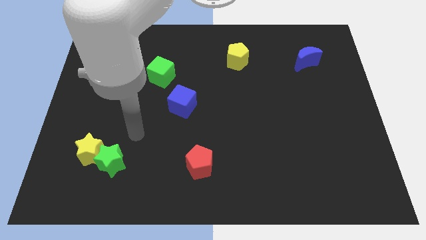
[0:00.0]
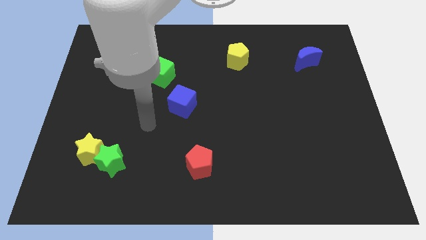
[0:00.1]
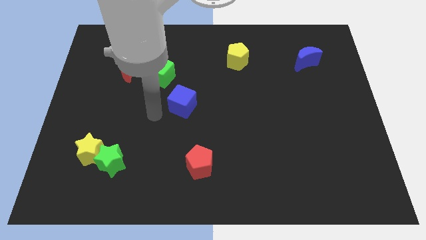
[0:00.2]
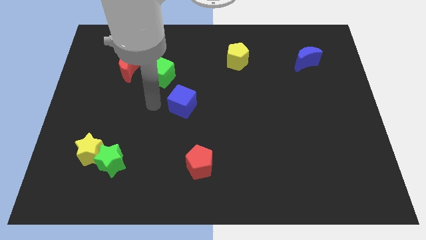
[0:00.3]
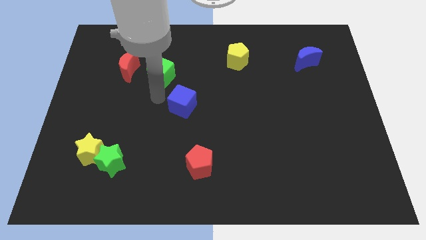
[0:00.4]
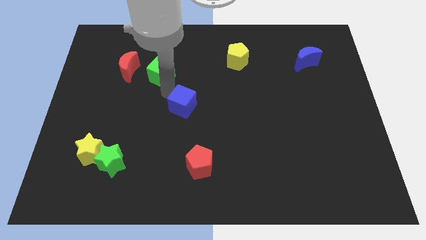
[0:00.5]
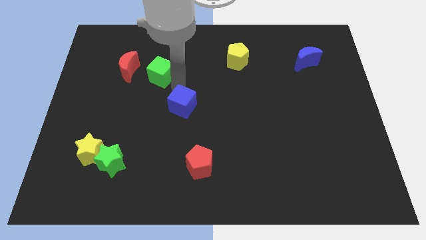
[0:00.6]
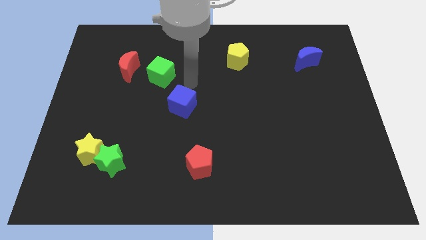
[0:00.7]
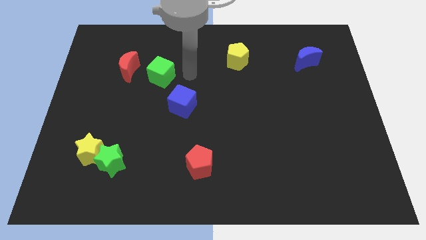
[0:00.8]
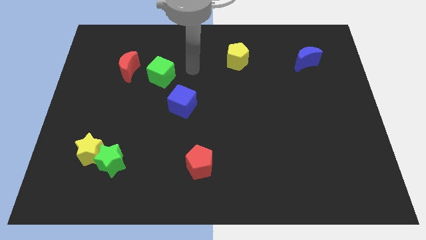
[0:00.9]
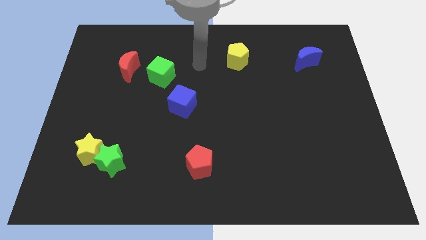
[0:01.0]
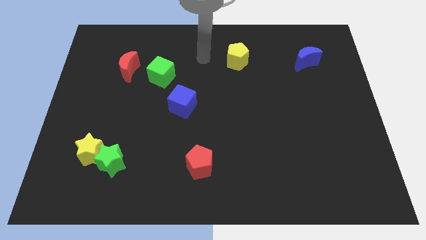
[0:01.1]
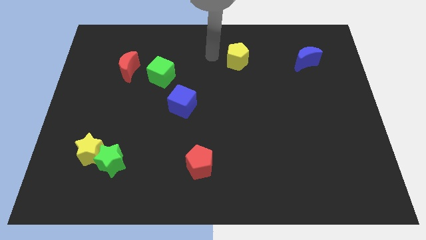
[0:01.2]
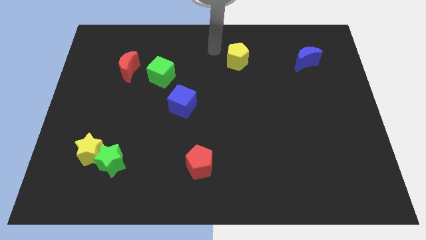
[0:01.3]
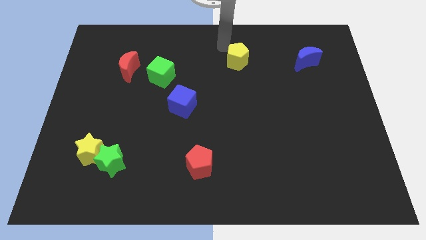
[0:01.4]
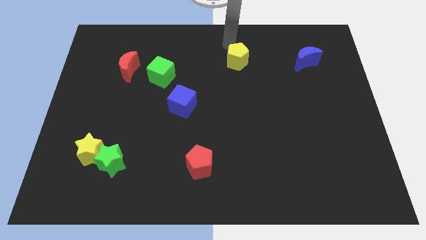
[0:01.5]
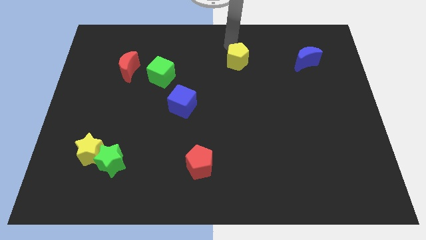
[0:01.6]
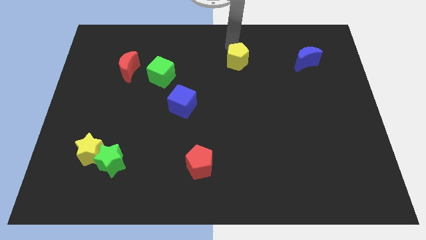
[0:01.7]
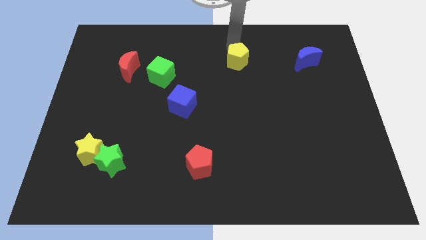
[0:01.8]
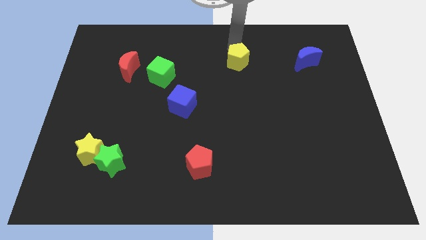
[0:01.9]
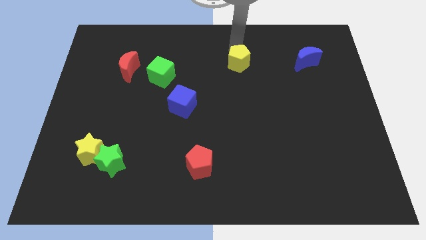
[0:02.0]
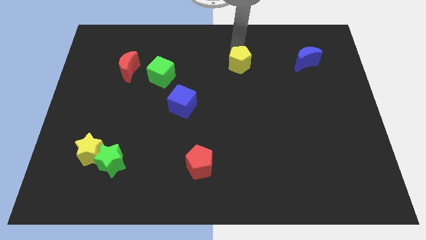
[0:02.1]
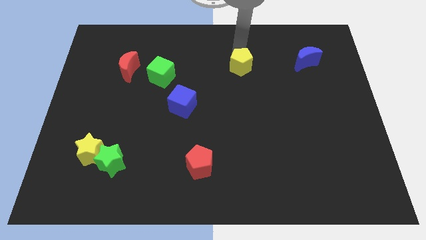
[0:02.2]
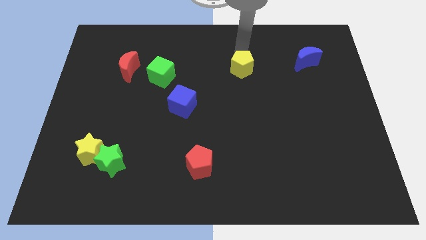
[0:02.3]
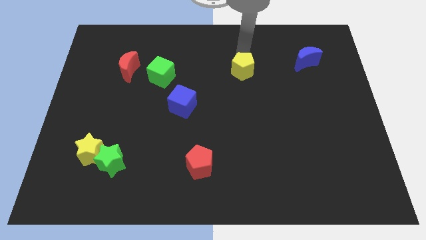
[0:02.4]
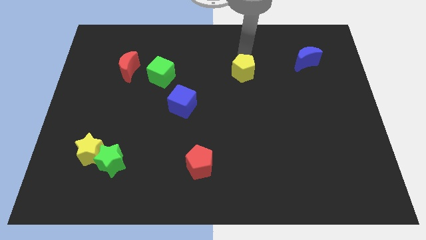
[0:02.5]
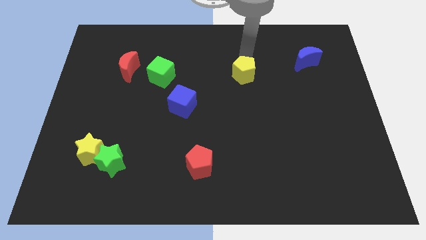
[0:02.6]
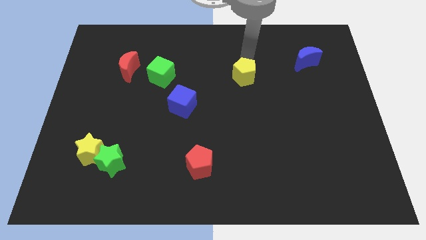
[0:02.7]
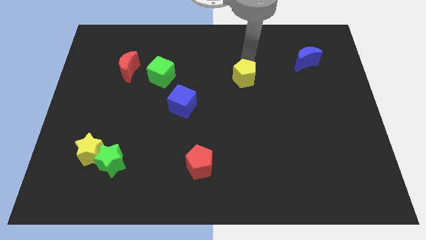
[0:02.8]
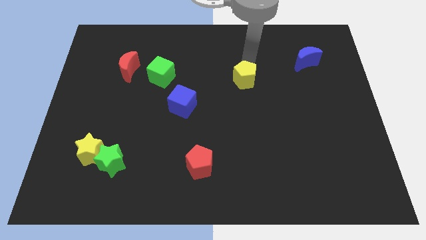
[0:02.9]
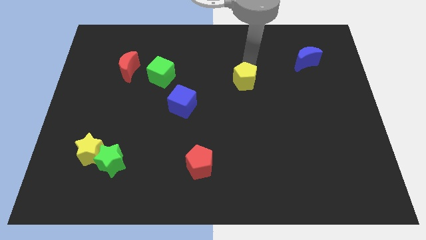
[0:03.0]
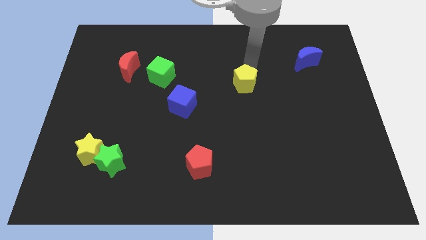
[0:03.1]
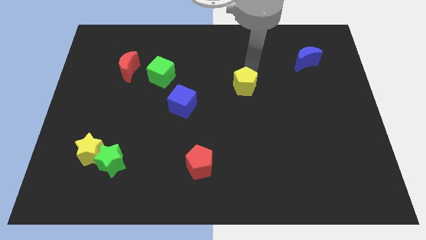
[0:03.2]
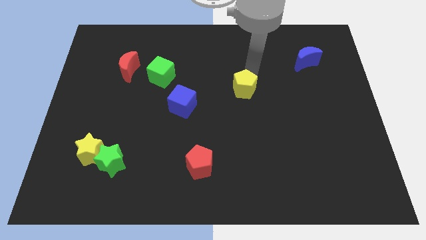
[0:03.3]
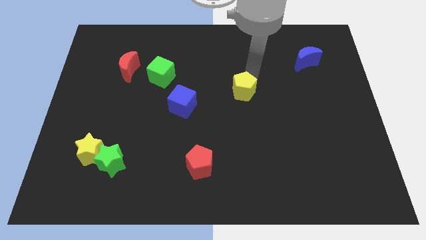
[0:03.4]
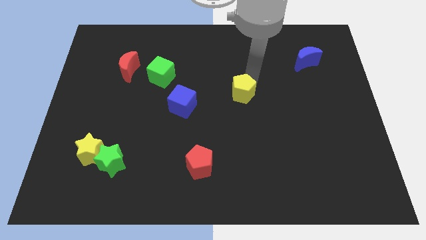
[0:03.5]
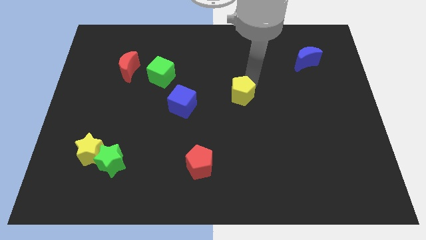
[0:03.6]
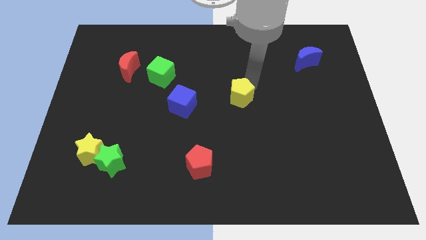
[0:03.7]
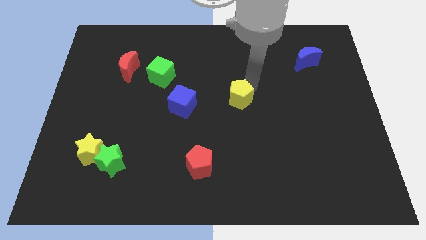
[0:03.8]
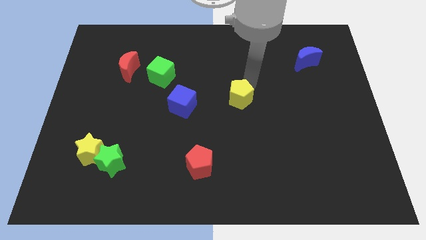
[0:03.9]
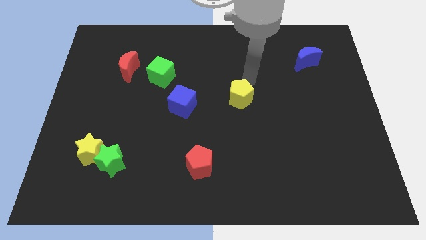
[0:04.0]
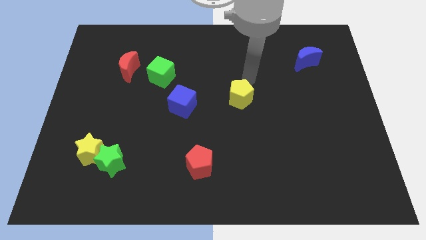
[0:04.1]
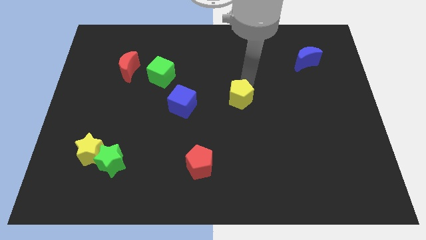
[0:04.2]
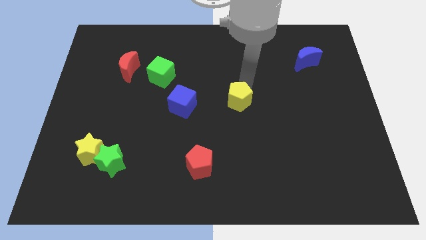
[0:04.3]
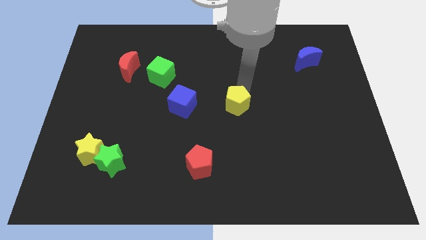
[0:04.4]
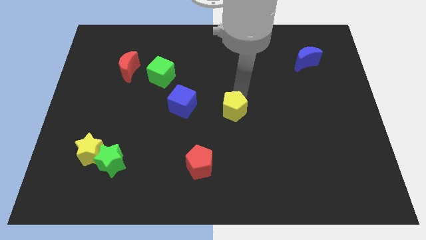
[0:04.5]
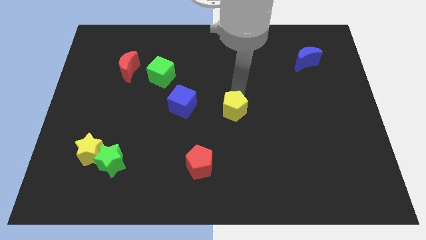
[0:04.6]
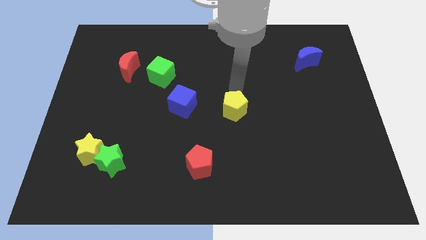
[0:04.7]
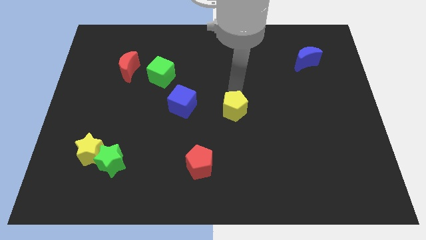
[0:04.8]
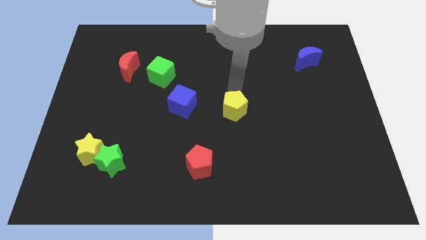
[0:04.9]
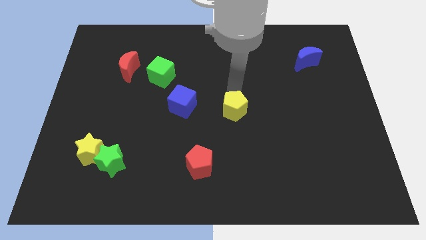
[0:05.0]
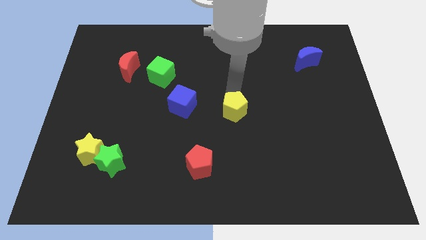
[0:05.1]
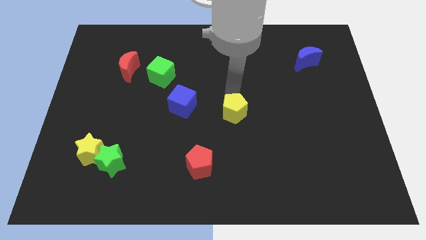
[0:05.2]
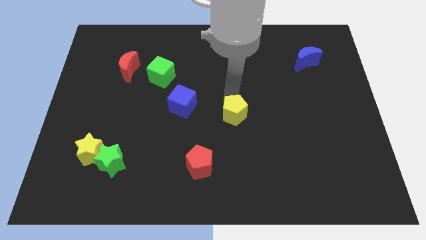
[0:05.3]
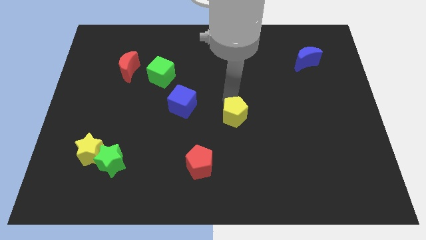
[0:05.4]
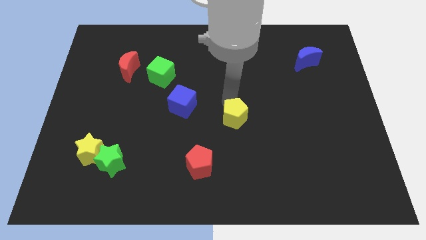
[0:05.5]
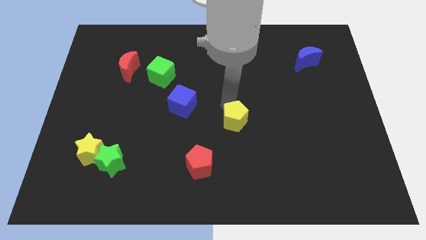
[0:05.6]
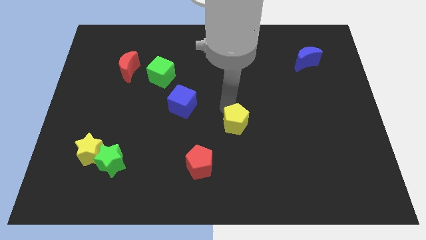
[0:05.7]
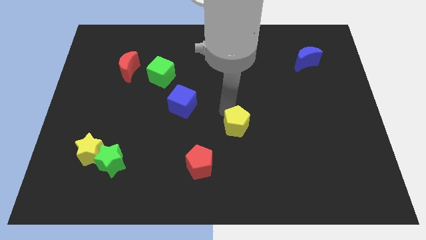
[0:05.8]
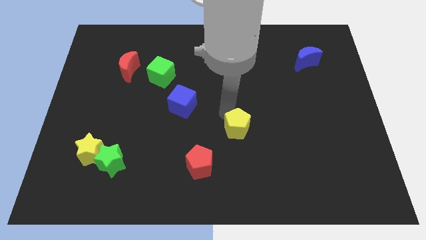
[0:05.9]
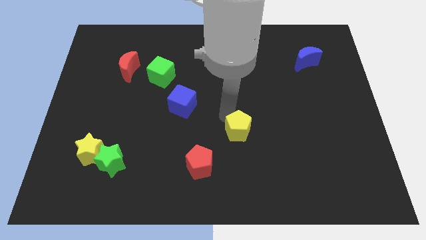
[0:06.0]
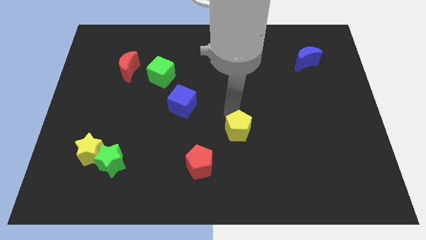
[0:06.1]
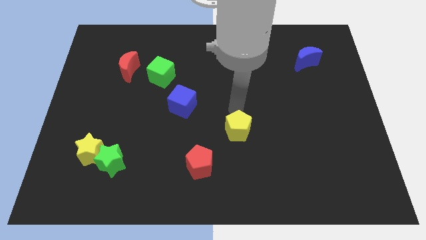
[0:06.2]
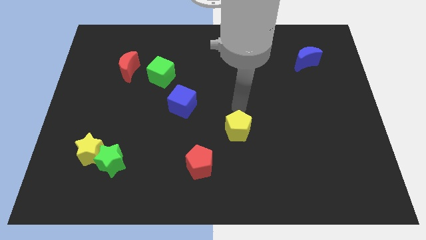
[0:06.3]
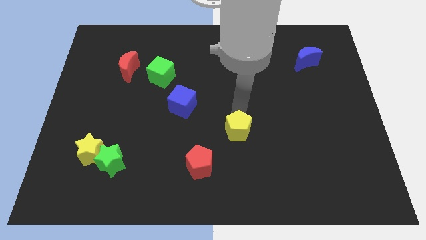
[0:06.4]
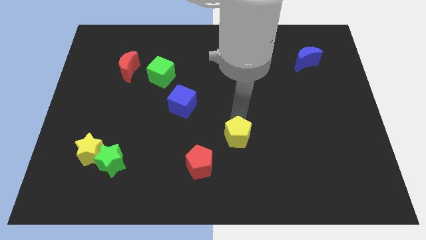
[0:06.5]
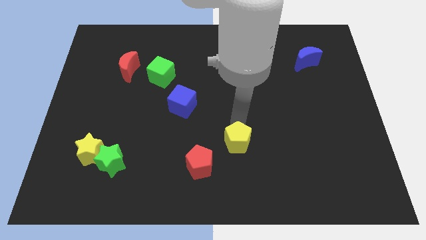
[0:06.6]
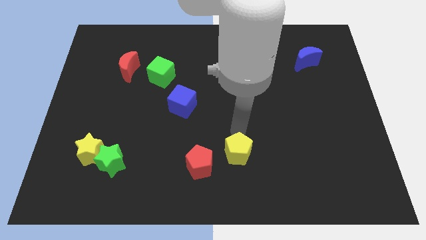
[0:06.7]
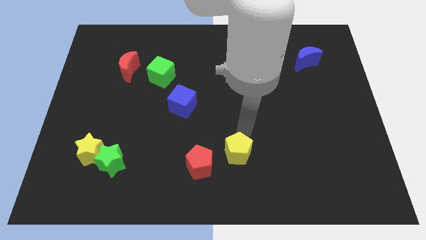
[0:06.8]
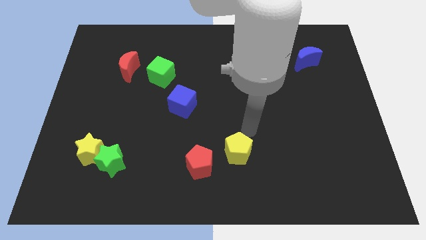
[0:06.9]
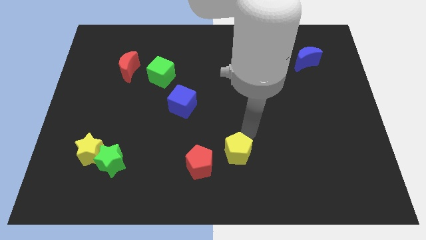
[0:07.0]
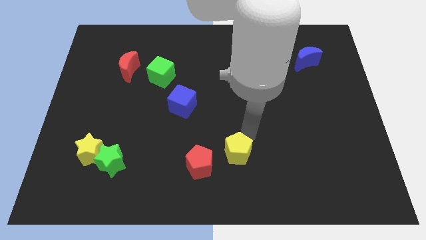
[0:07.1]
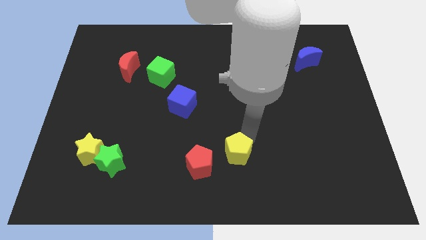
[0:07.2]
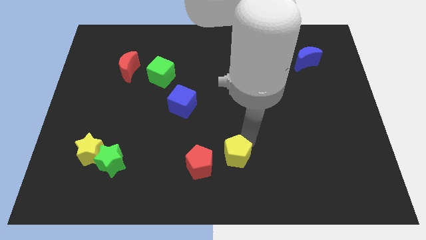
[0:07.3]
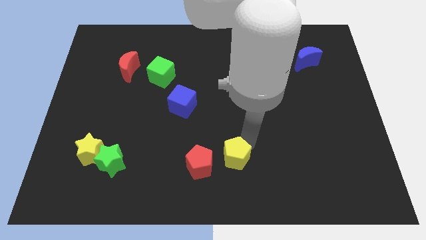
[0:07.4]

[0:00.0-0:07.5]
put the yellow pentagon to the bottom

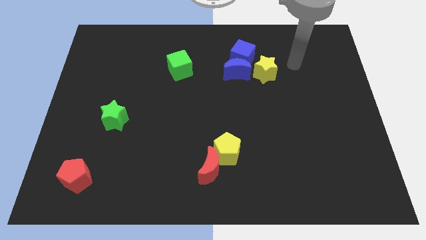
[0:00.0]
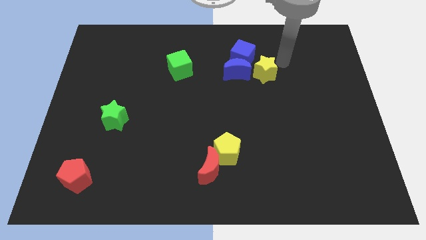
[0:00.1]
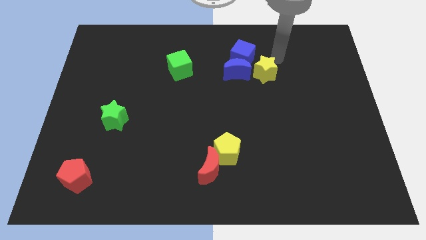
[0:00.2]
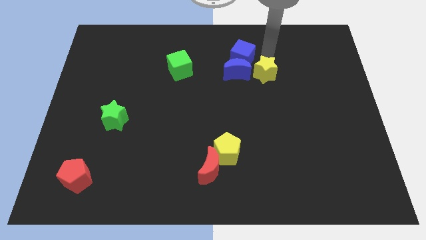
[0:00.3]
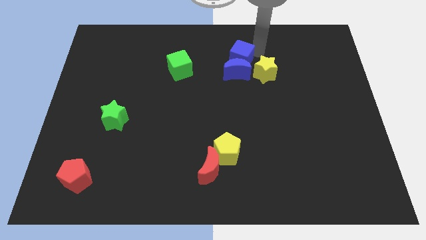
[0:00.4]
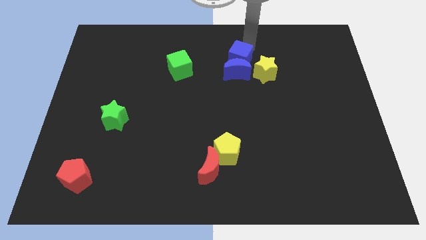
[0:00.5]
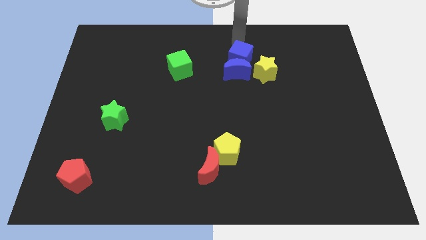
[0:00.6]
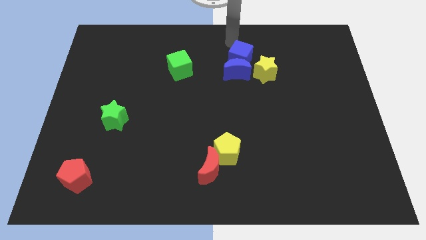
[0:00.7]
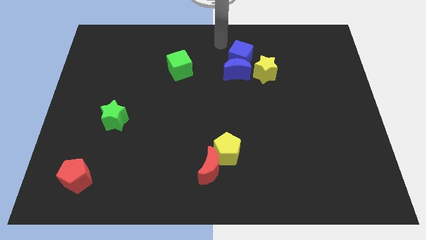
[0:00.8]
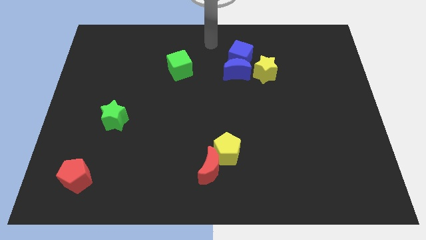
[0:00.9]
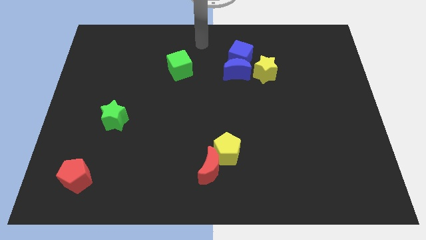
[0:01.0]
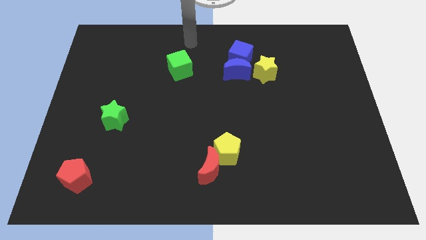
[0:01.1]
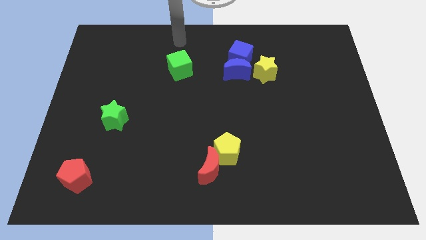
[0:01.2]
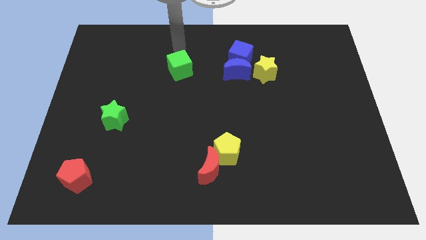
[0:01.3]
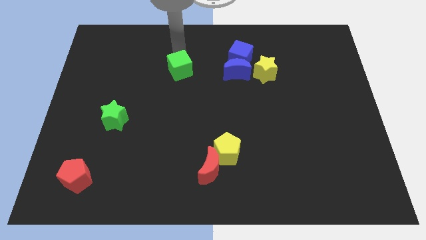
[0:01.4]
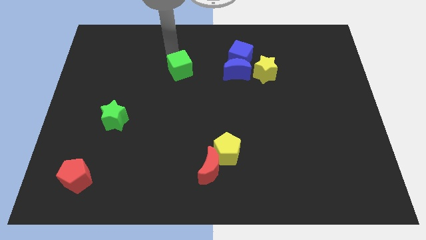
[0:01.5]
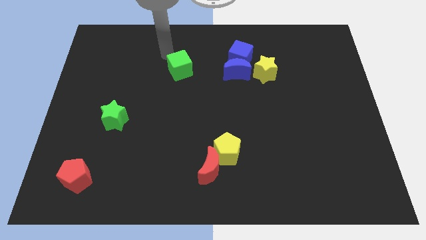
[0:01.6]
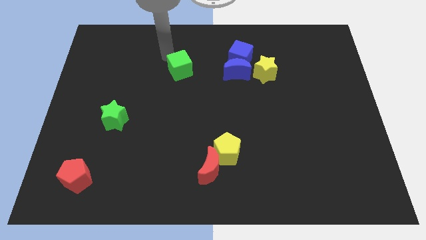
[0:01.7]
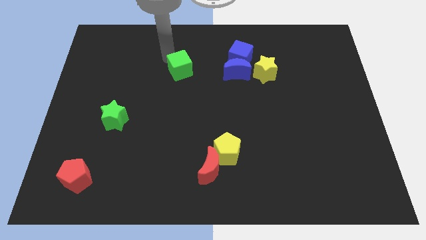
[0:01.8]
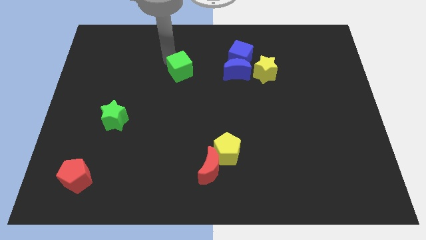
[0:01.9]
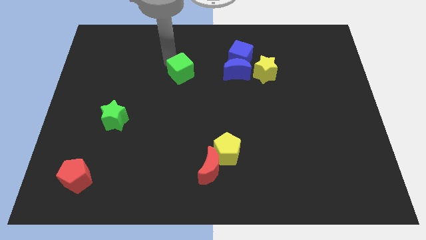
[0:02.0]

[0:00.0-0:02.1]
move the green cube to the center of the board
